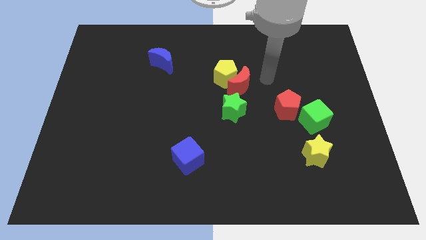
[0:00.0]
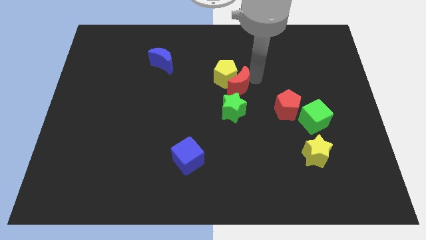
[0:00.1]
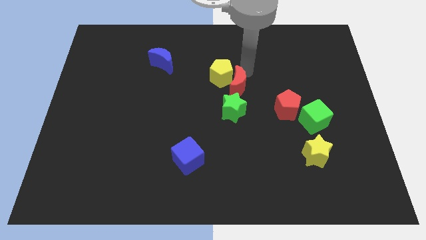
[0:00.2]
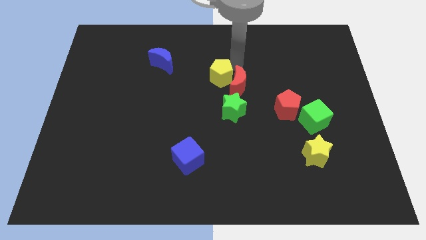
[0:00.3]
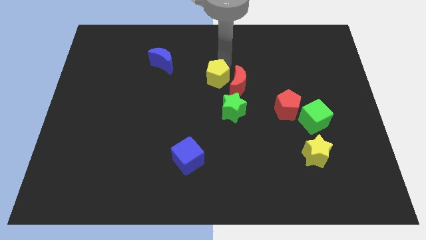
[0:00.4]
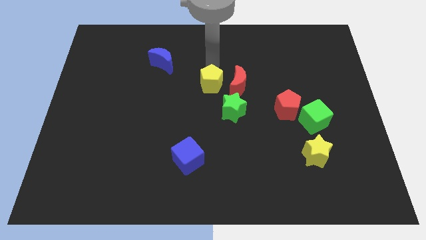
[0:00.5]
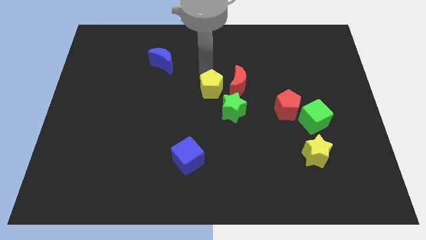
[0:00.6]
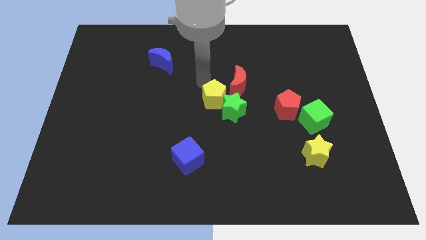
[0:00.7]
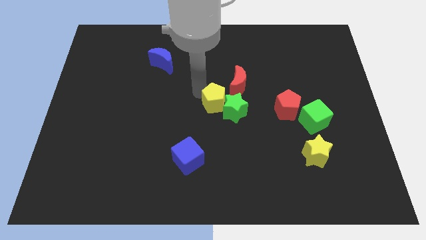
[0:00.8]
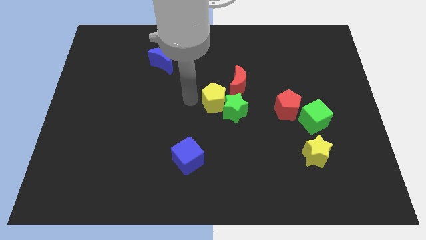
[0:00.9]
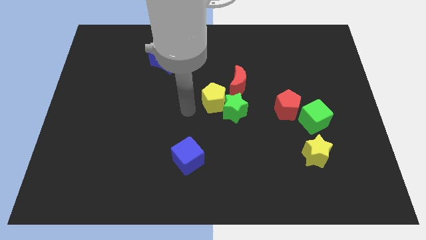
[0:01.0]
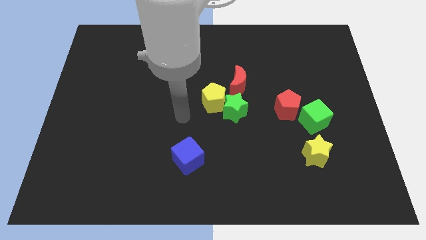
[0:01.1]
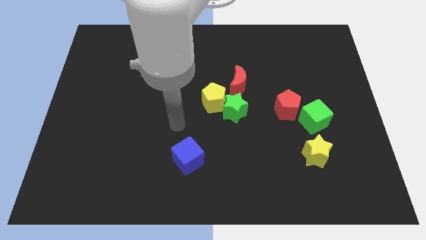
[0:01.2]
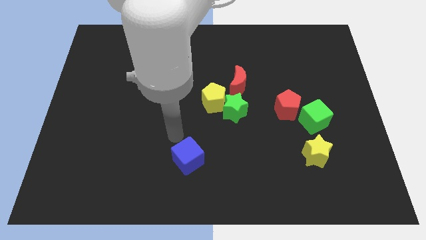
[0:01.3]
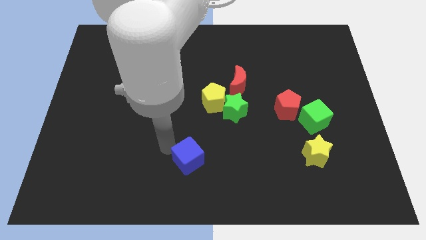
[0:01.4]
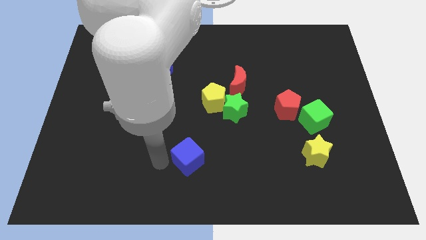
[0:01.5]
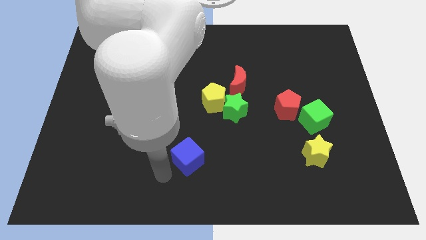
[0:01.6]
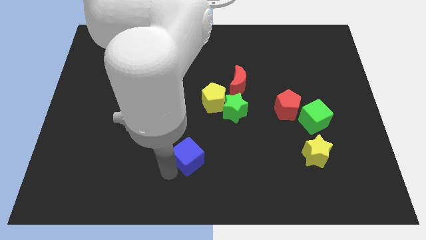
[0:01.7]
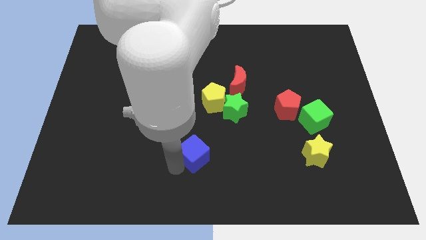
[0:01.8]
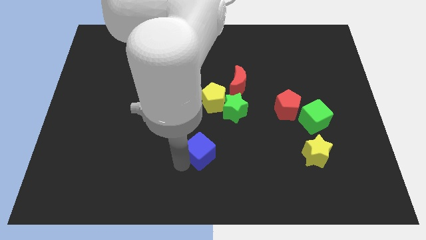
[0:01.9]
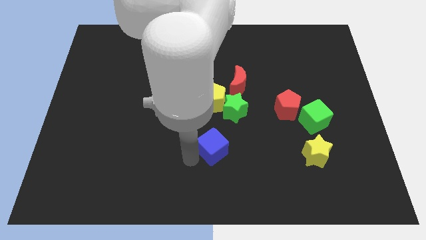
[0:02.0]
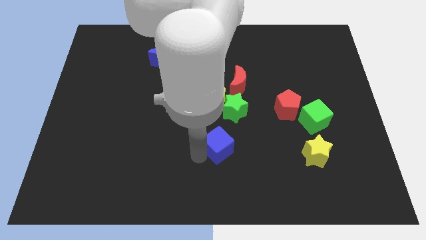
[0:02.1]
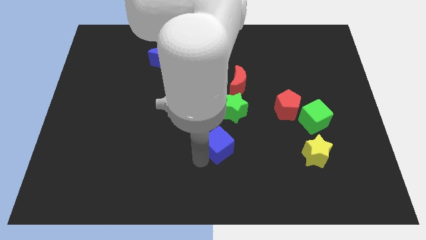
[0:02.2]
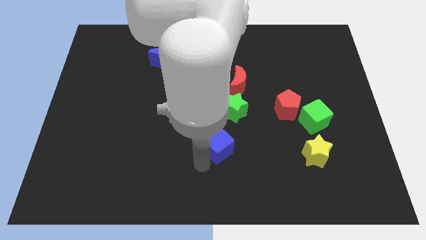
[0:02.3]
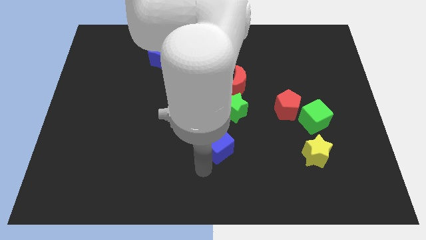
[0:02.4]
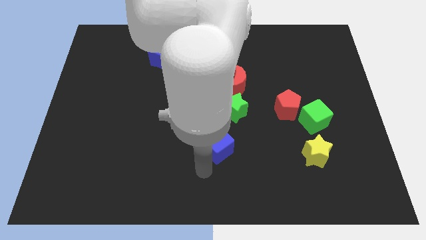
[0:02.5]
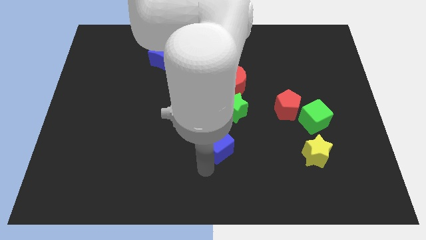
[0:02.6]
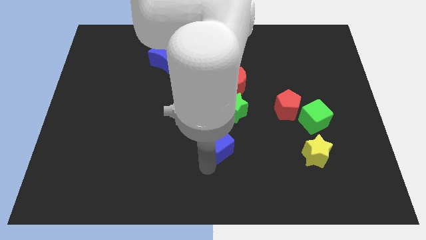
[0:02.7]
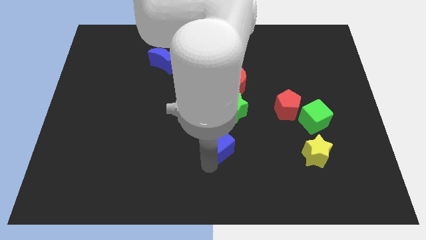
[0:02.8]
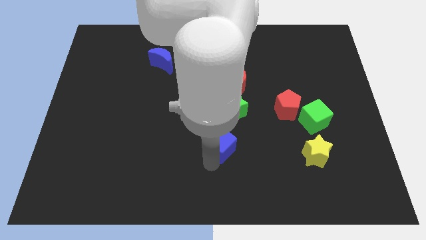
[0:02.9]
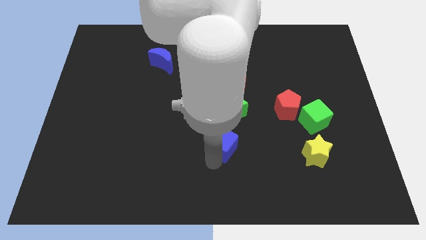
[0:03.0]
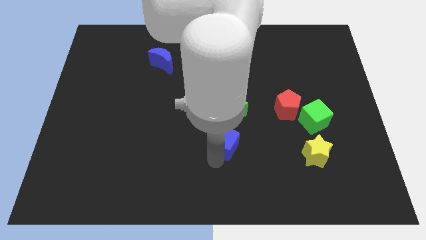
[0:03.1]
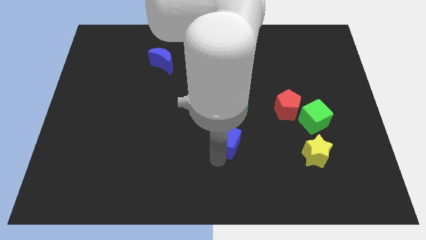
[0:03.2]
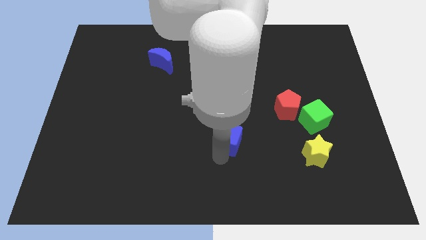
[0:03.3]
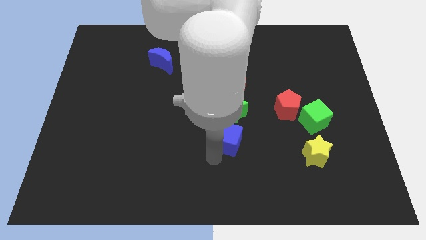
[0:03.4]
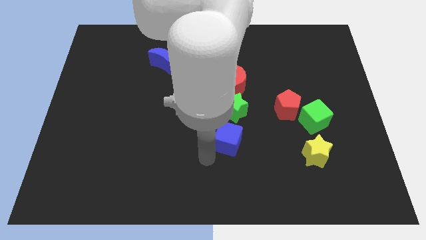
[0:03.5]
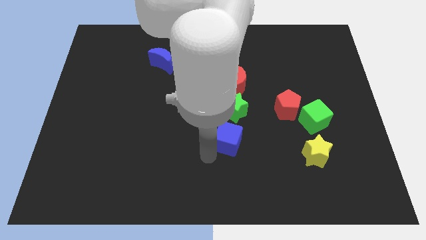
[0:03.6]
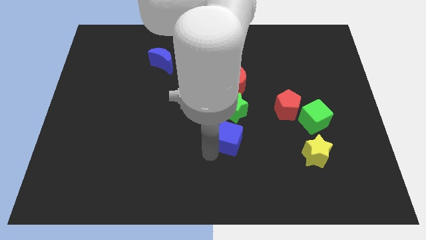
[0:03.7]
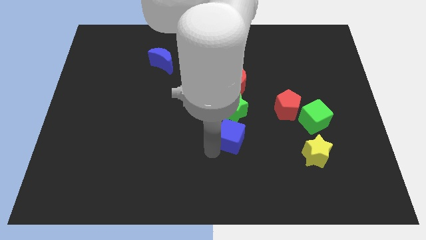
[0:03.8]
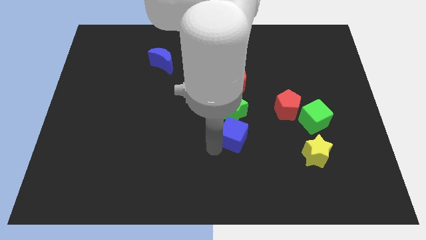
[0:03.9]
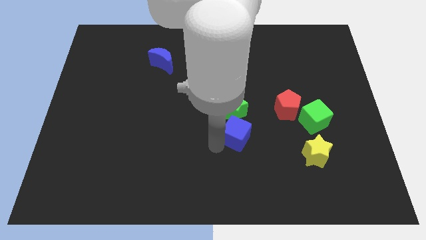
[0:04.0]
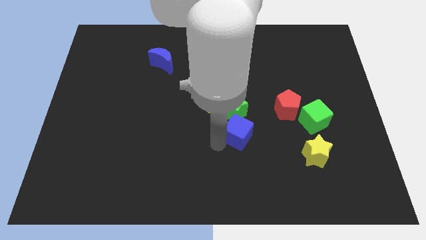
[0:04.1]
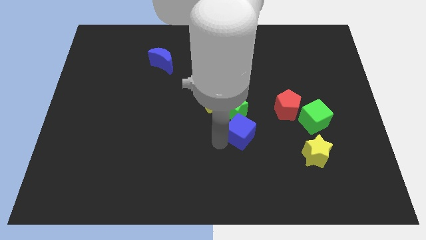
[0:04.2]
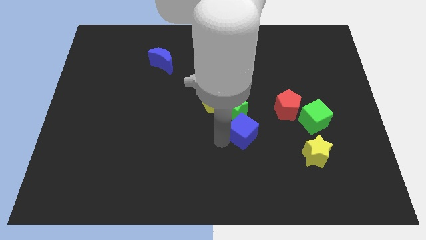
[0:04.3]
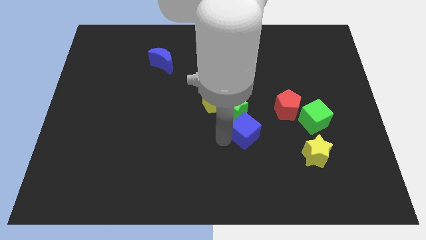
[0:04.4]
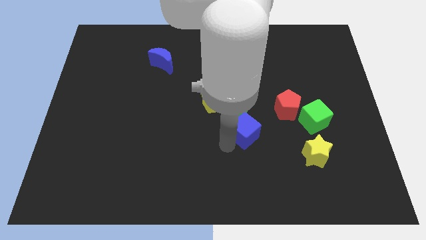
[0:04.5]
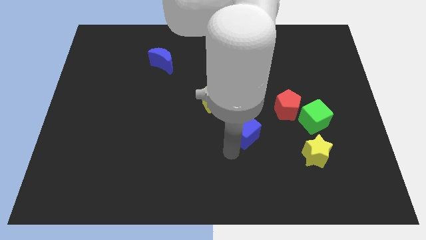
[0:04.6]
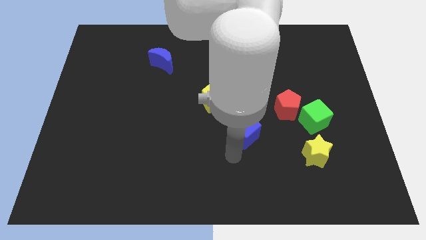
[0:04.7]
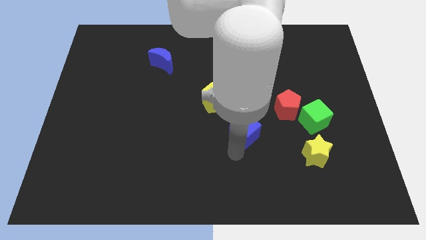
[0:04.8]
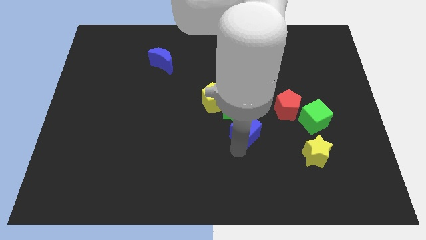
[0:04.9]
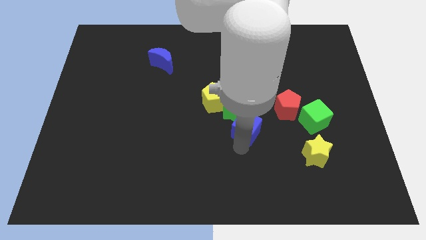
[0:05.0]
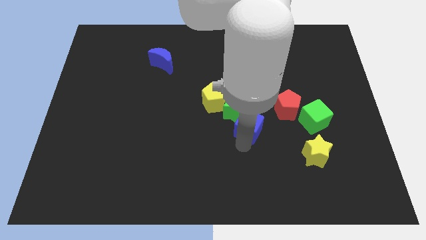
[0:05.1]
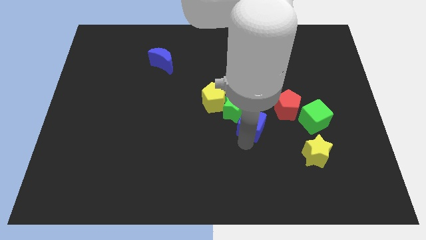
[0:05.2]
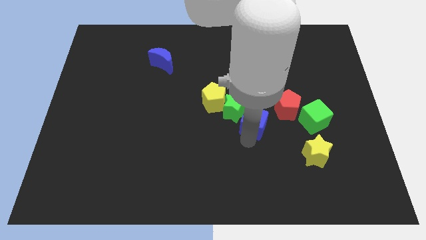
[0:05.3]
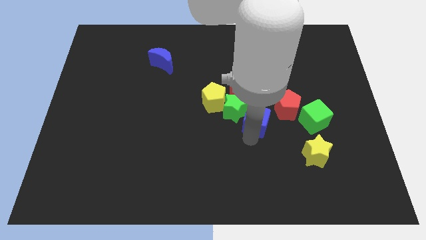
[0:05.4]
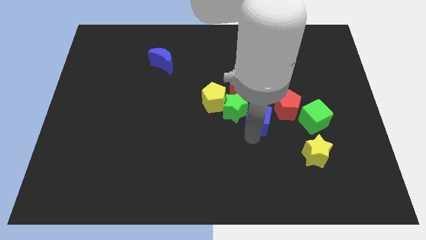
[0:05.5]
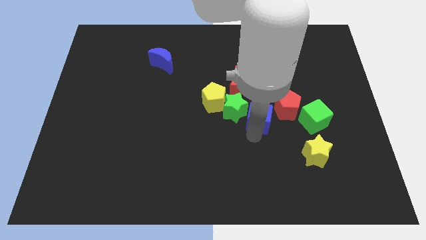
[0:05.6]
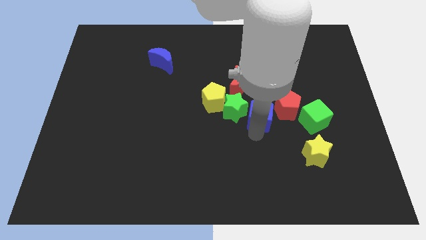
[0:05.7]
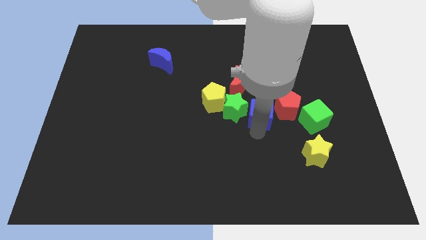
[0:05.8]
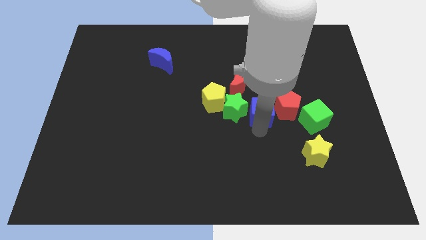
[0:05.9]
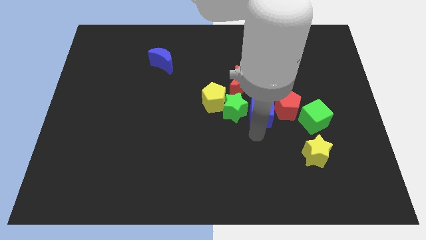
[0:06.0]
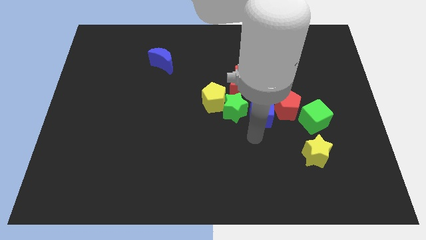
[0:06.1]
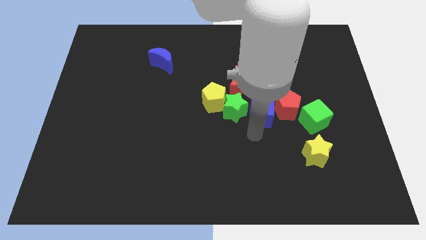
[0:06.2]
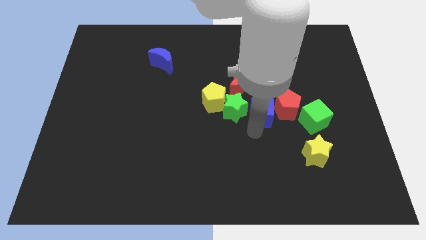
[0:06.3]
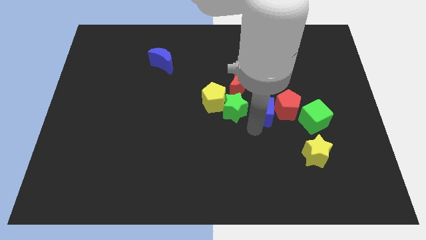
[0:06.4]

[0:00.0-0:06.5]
push the blue cube diagonally upwards and to the right

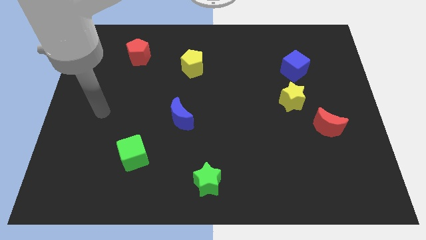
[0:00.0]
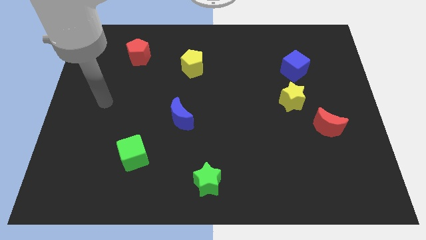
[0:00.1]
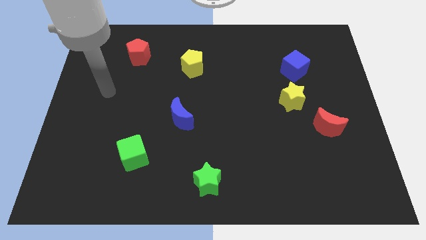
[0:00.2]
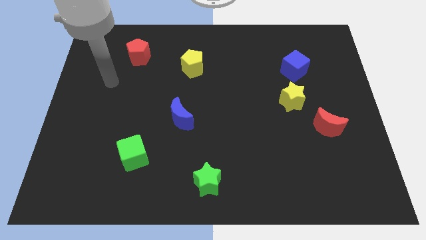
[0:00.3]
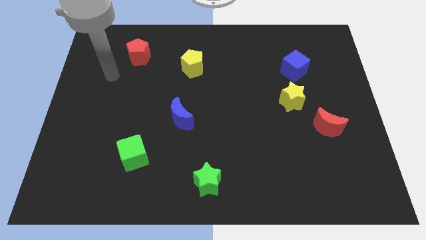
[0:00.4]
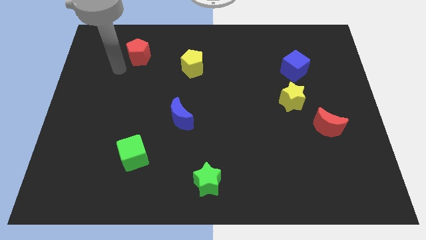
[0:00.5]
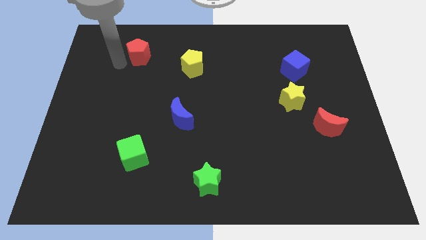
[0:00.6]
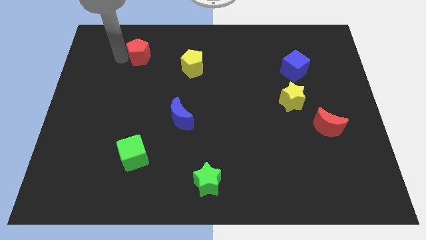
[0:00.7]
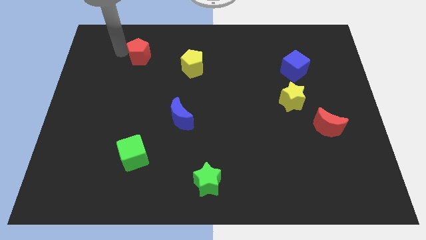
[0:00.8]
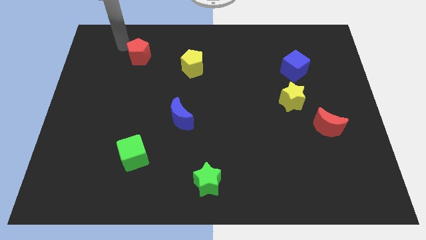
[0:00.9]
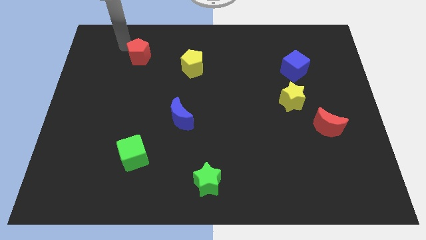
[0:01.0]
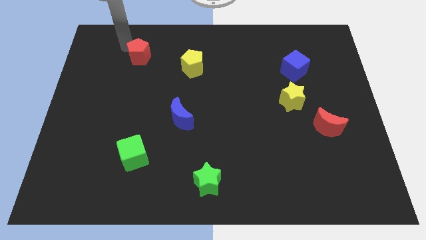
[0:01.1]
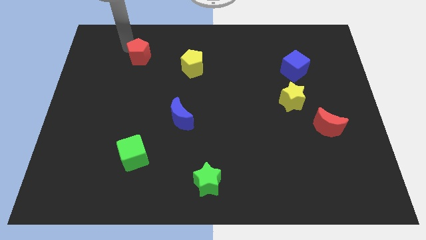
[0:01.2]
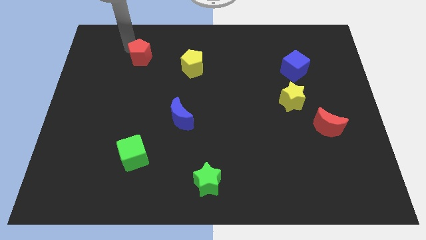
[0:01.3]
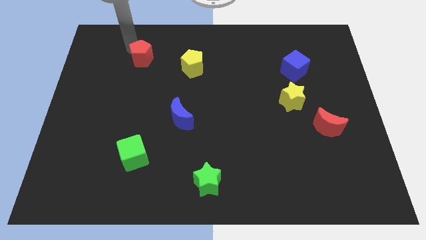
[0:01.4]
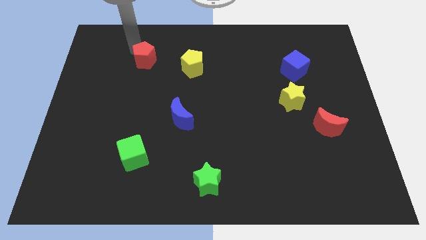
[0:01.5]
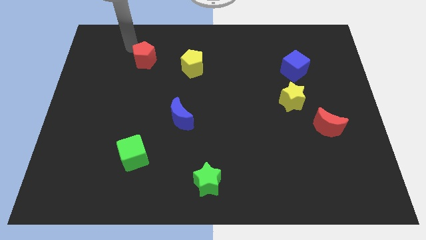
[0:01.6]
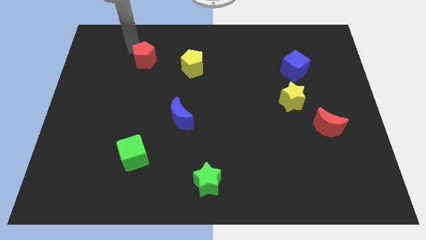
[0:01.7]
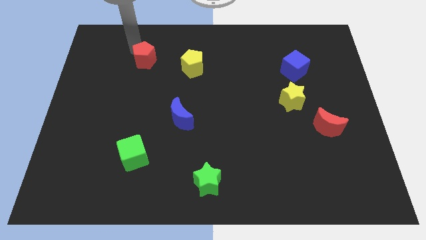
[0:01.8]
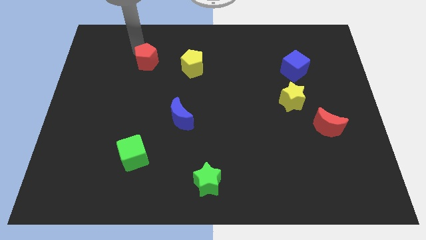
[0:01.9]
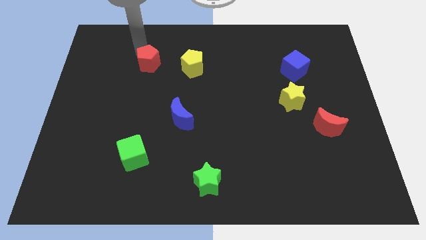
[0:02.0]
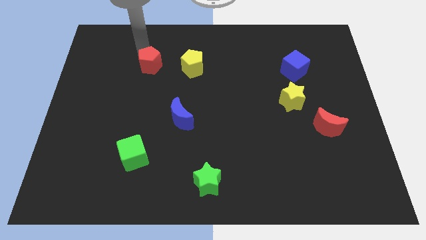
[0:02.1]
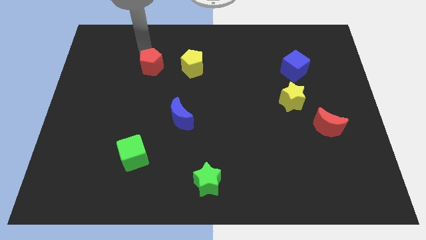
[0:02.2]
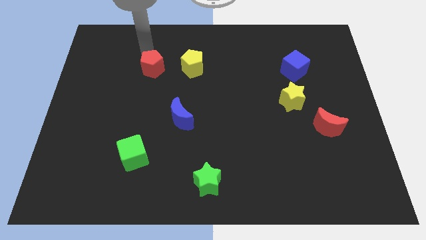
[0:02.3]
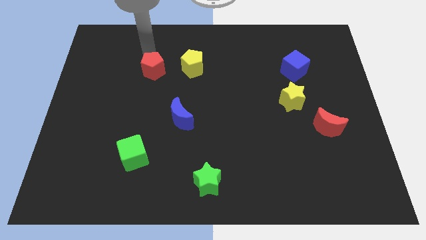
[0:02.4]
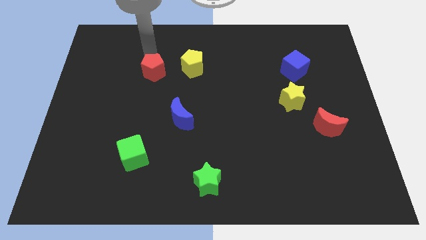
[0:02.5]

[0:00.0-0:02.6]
move the red pentagon down and right diagonally slightly
